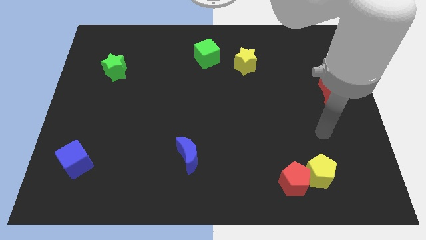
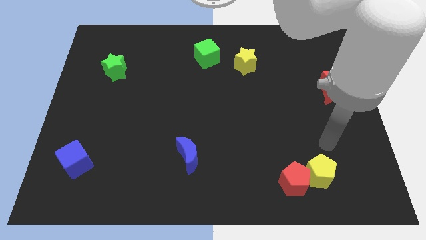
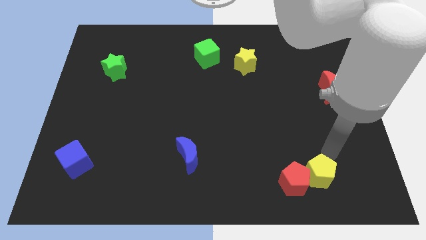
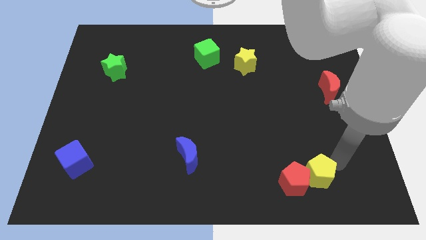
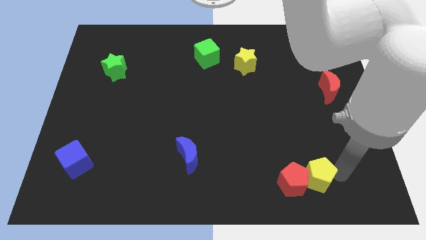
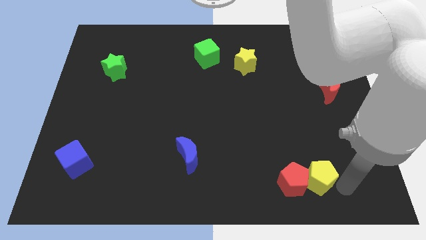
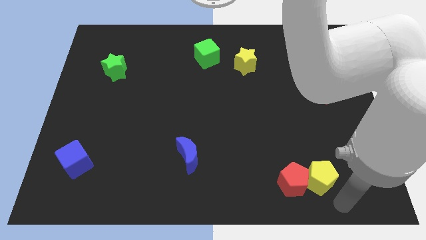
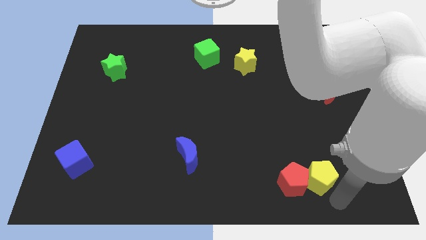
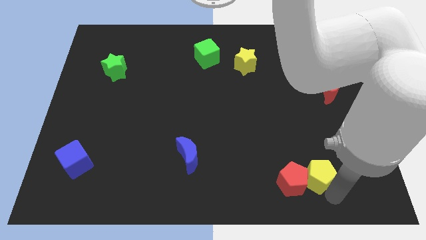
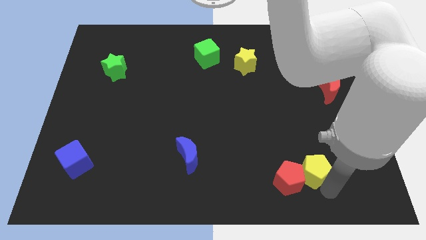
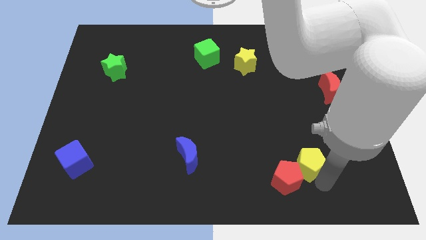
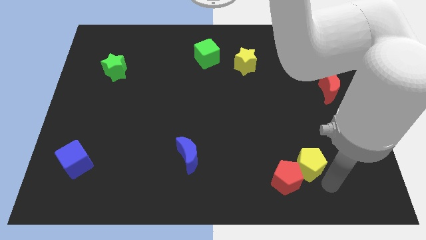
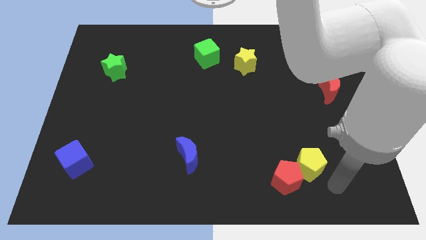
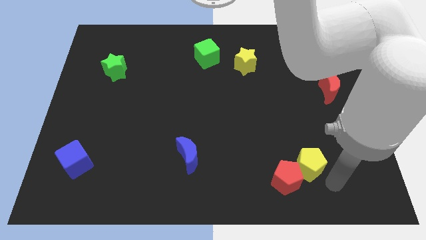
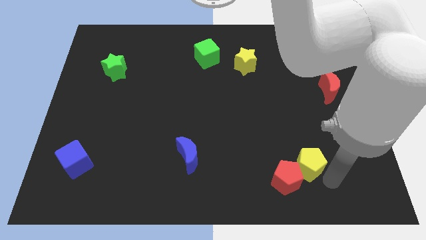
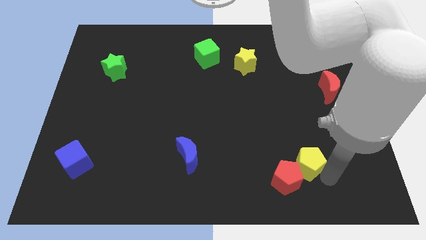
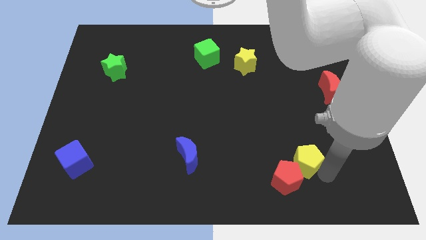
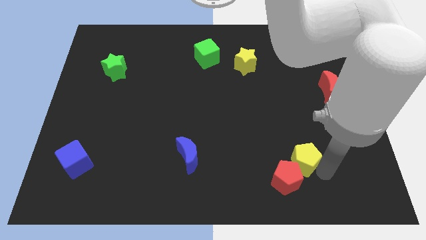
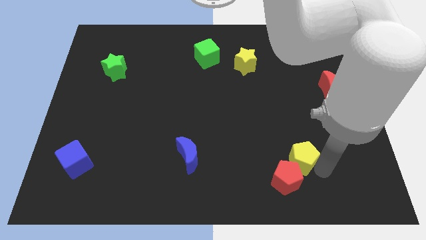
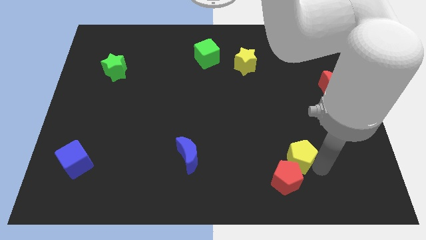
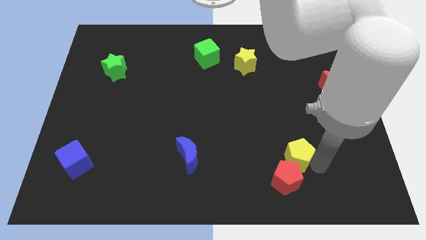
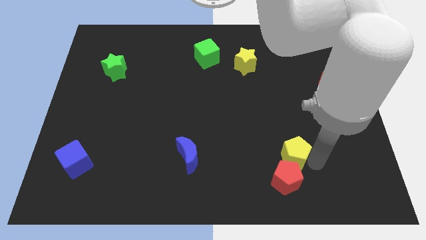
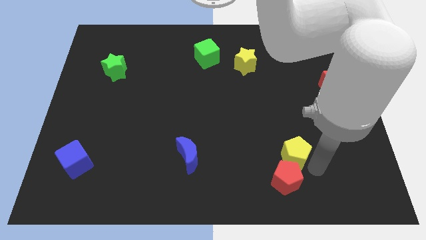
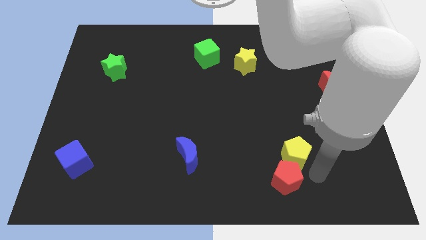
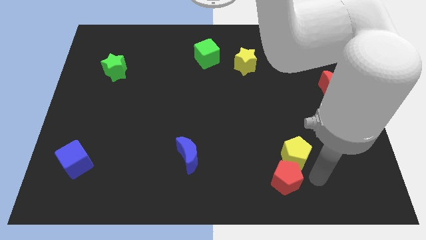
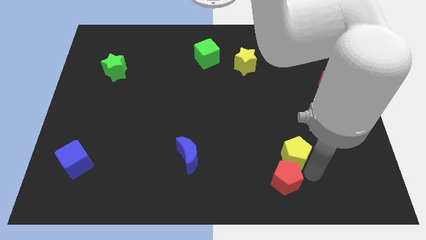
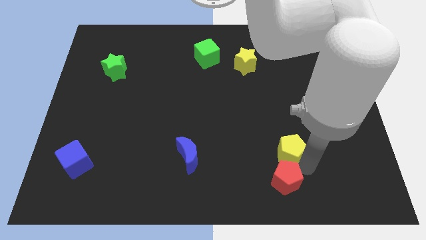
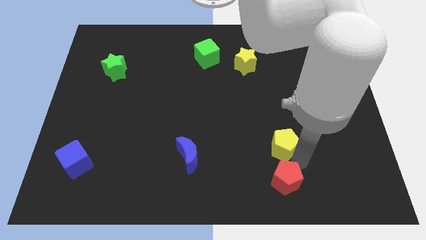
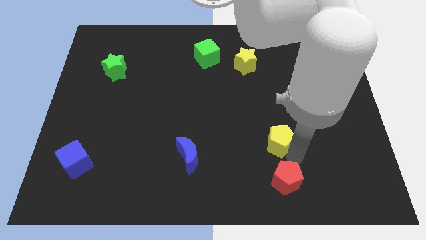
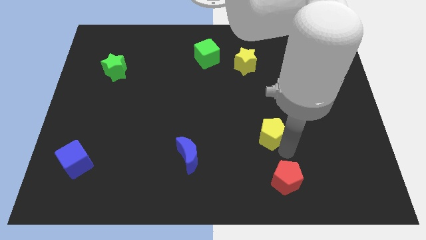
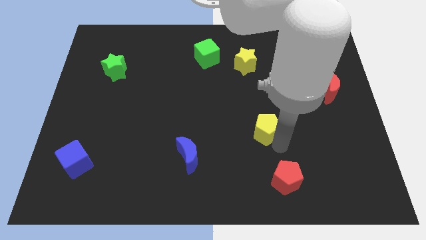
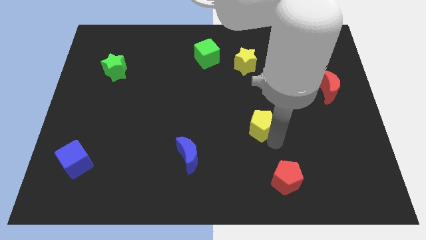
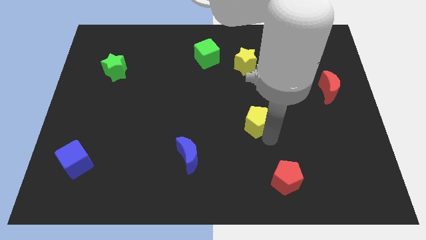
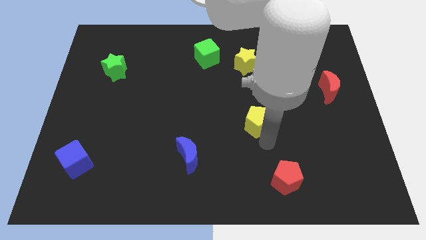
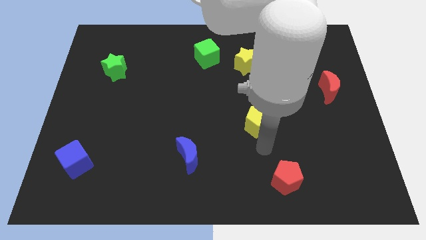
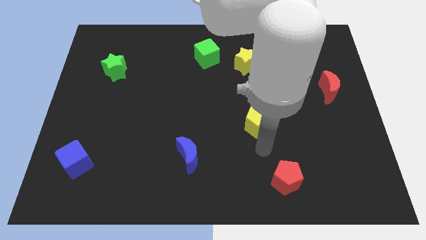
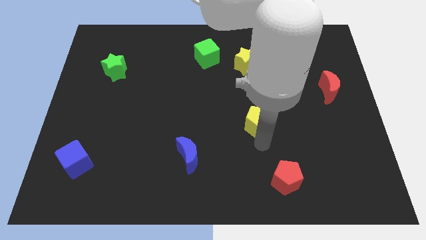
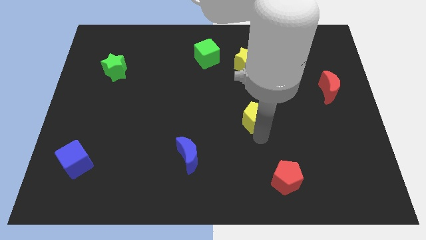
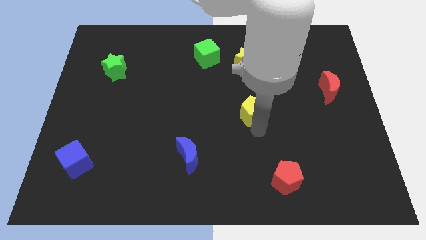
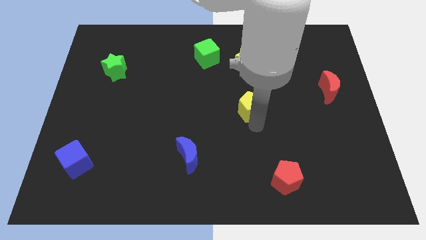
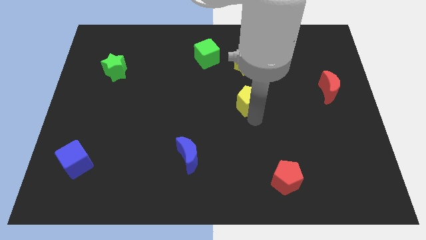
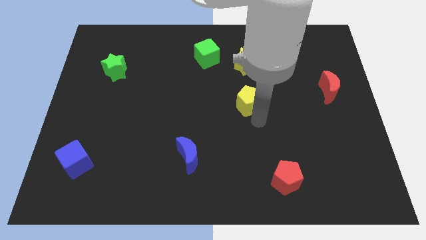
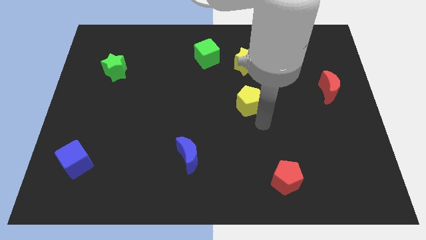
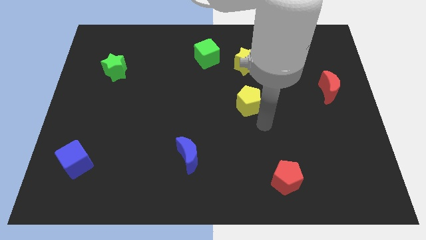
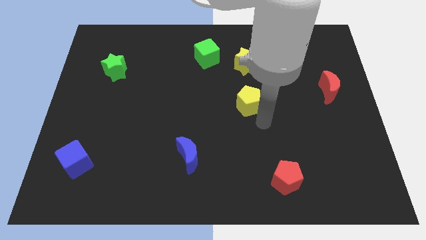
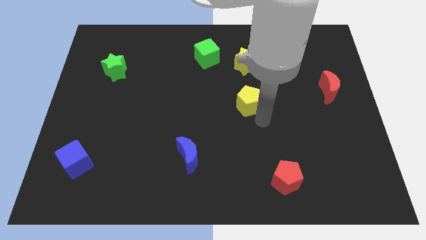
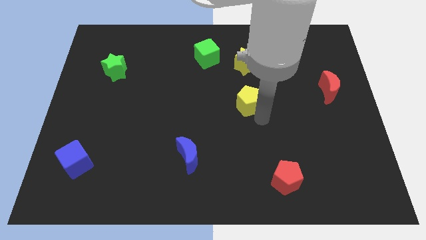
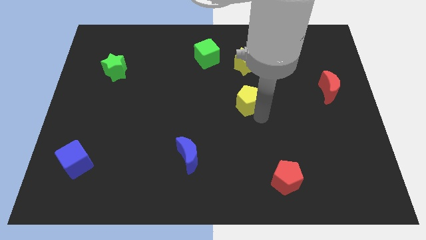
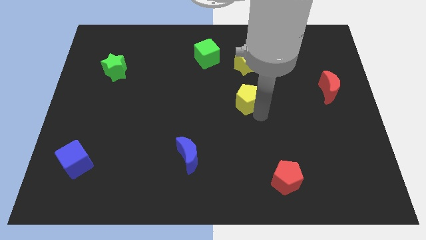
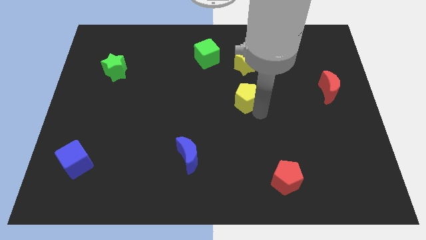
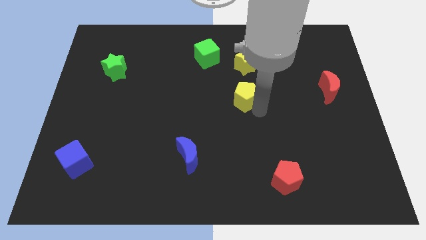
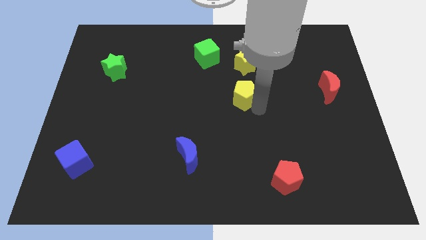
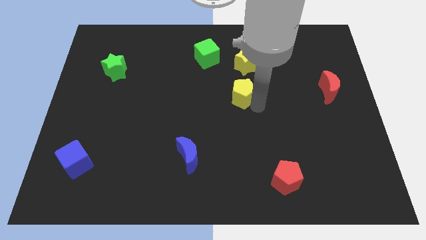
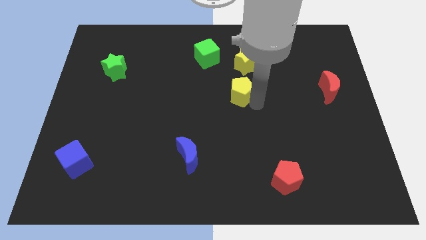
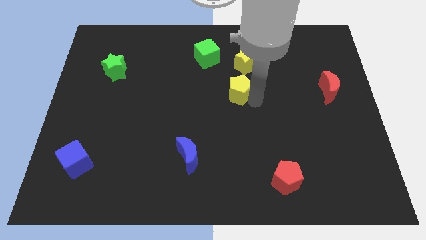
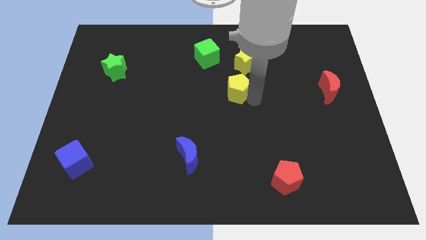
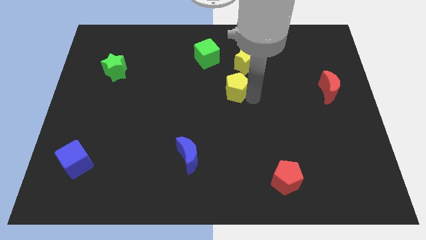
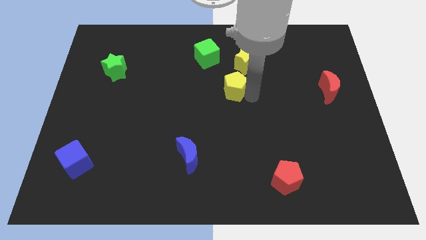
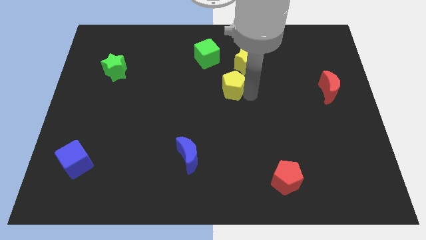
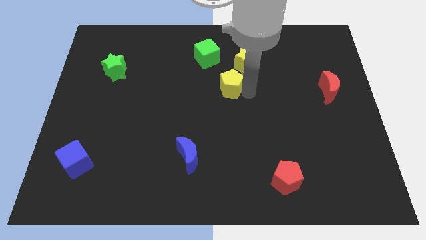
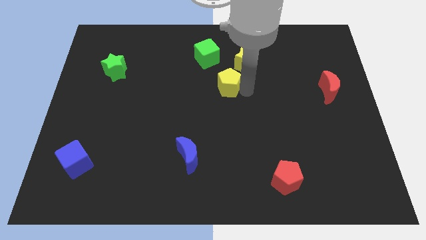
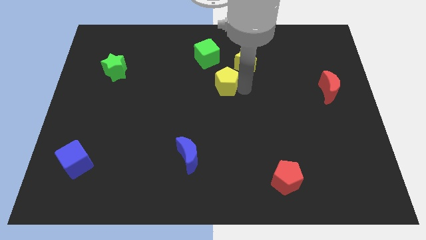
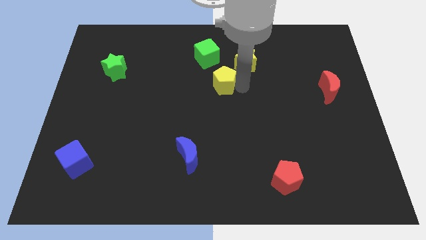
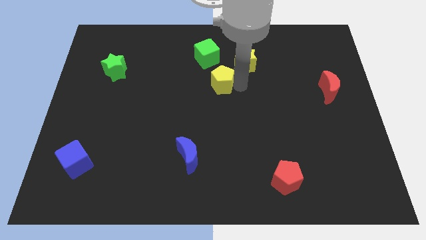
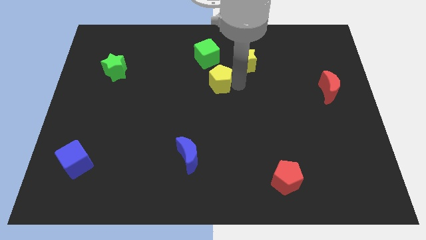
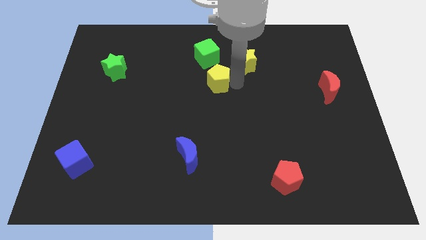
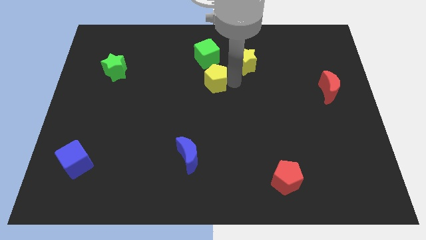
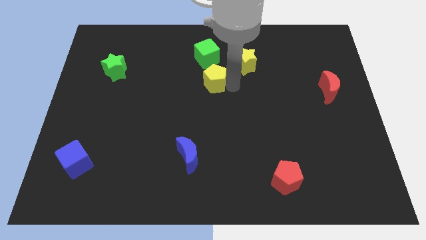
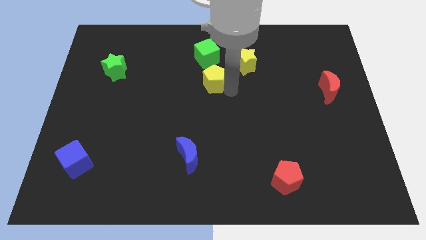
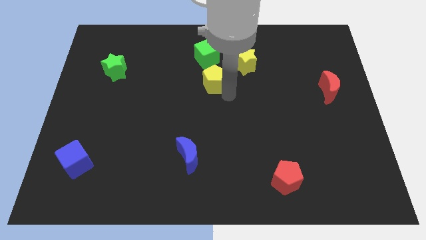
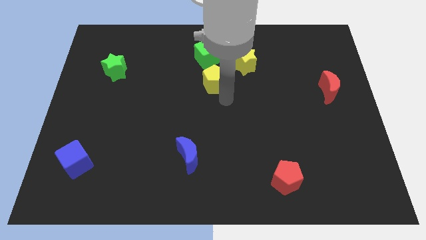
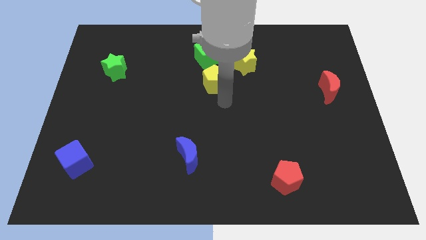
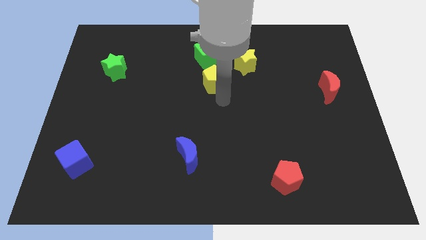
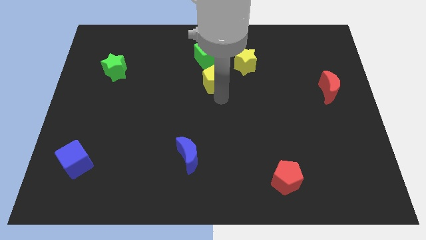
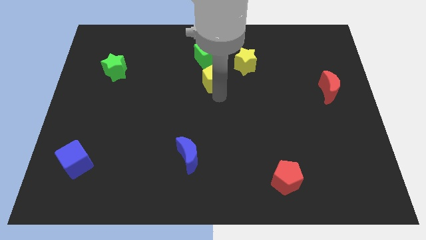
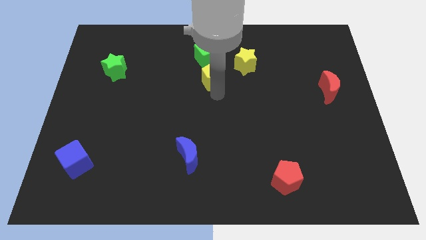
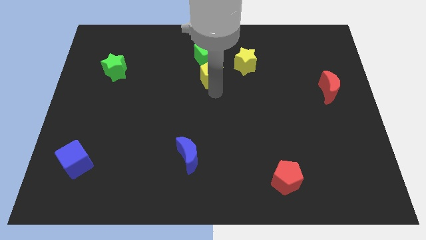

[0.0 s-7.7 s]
slide the yellow pentagon left of the yellow star

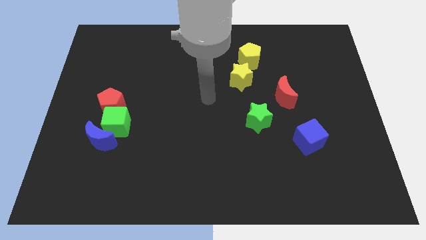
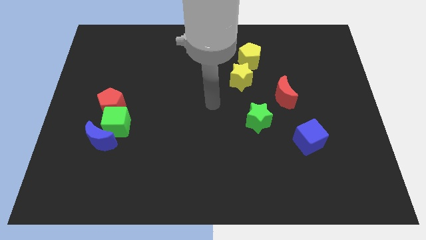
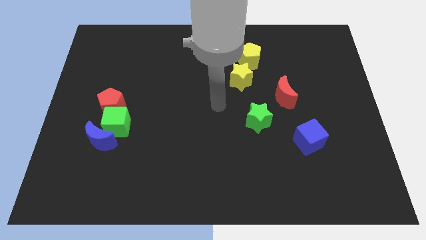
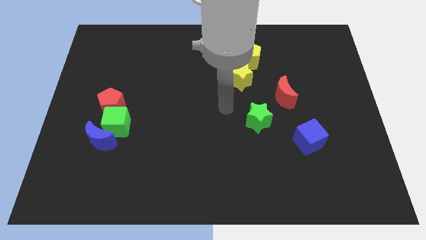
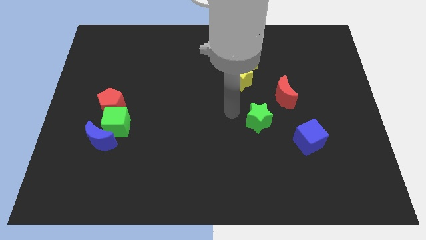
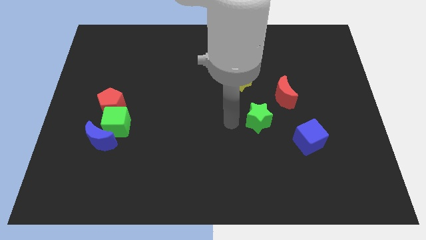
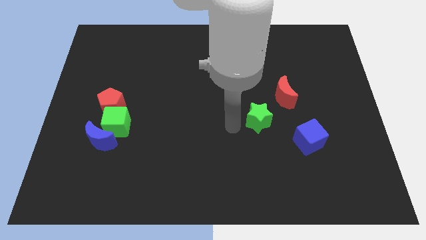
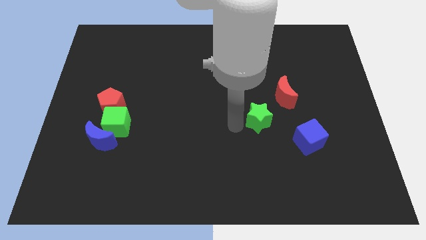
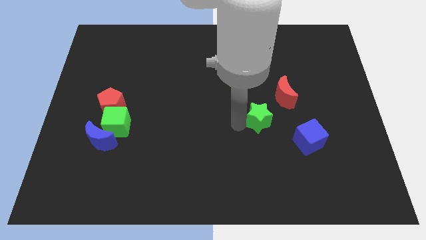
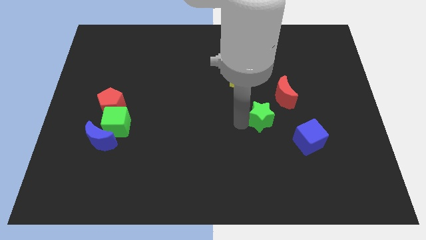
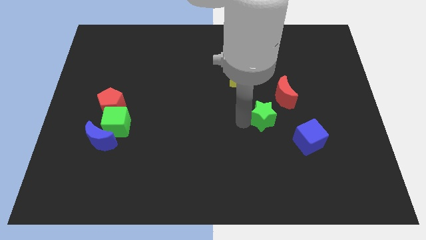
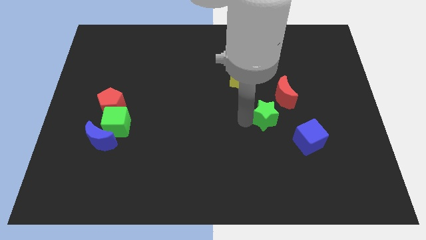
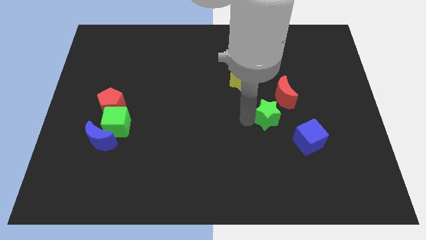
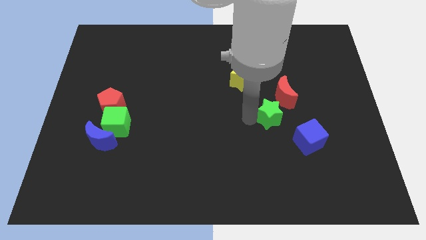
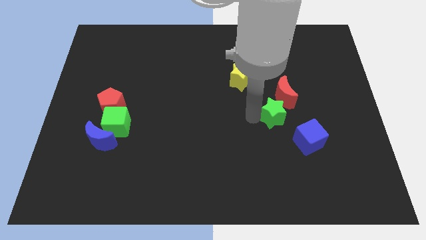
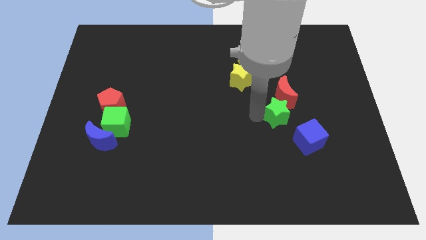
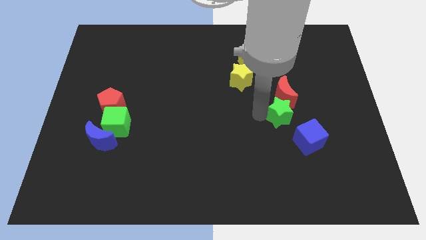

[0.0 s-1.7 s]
put the green star to the bottom right of the red moon
